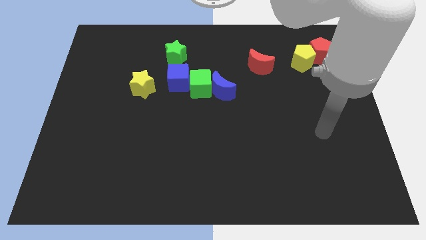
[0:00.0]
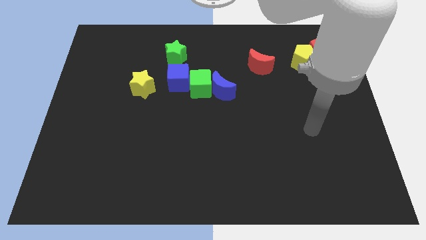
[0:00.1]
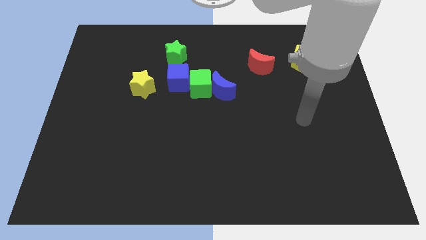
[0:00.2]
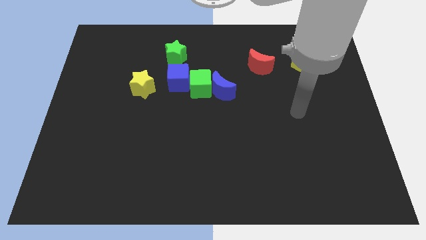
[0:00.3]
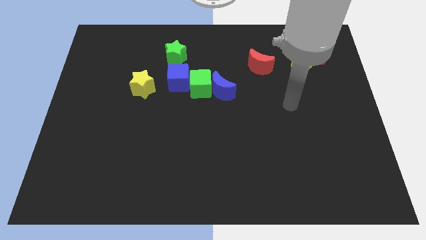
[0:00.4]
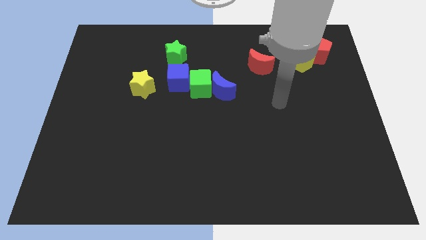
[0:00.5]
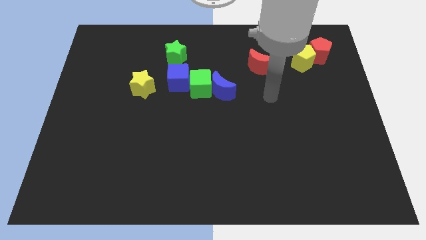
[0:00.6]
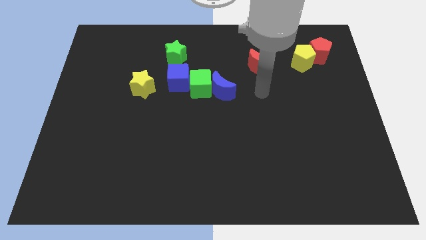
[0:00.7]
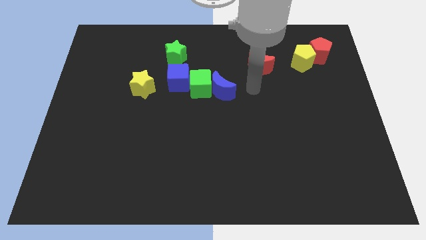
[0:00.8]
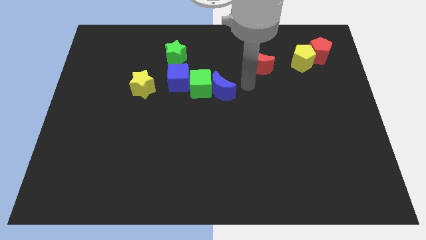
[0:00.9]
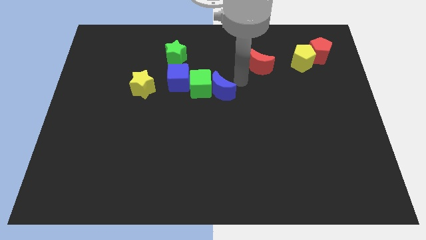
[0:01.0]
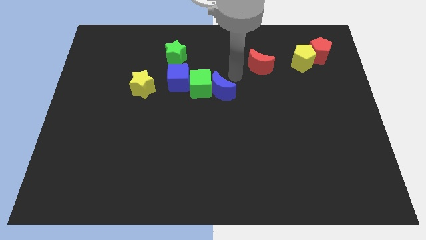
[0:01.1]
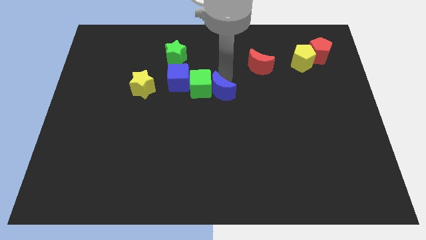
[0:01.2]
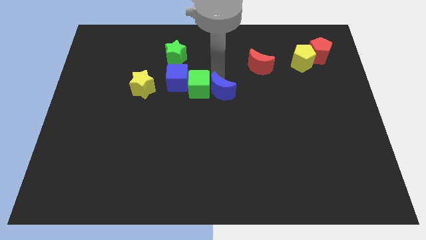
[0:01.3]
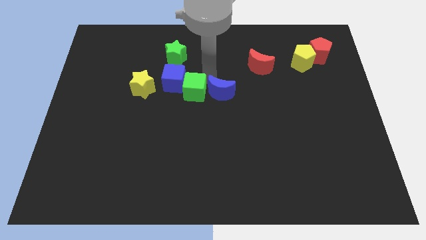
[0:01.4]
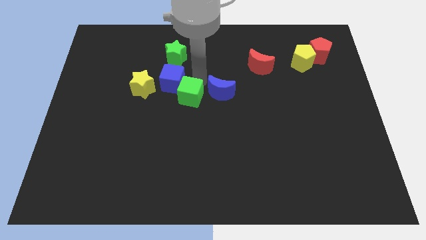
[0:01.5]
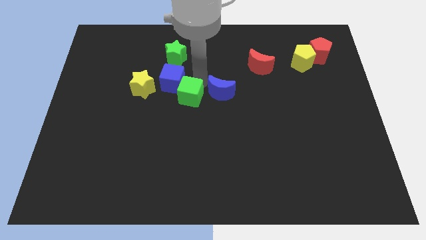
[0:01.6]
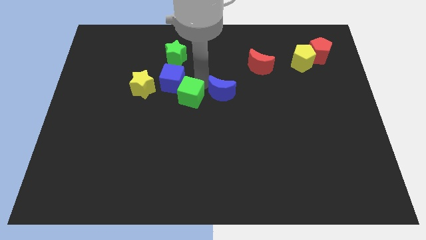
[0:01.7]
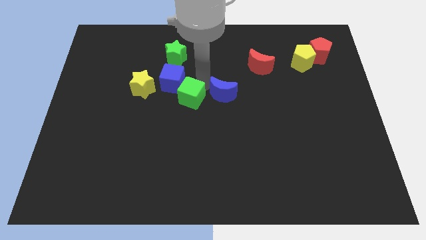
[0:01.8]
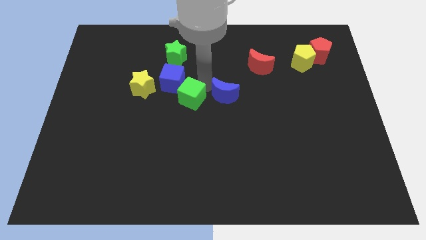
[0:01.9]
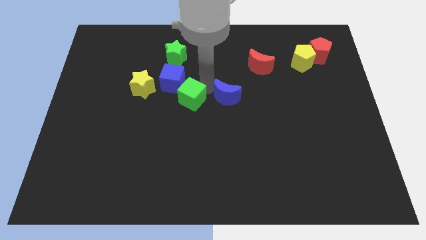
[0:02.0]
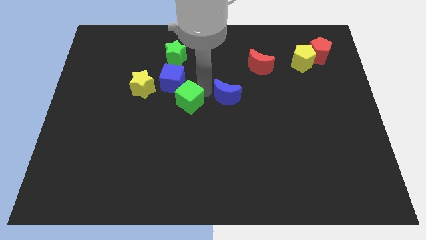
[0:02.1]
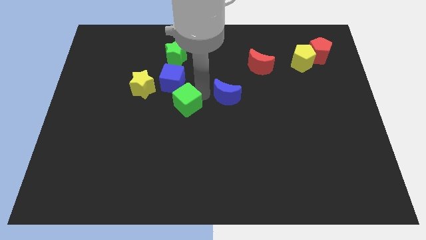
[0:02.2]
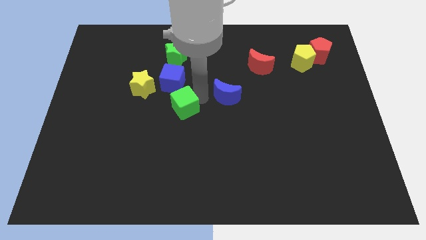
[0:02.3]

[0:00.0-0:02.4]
move the blue moon away from the green cube

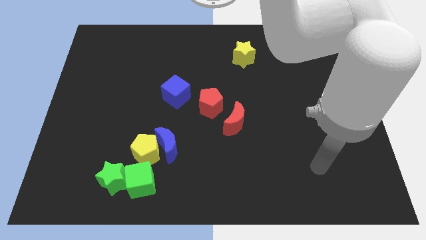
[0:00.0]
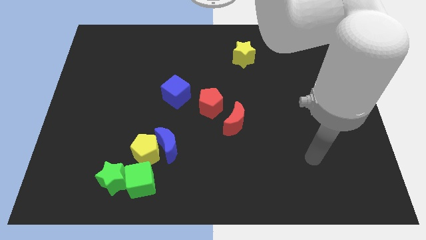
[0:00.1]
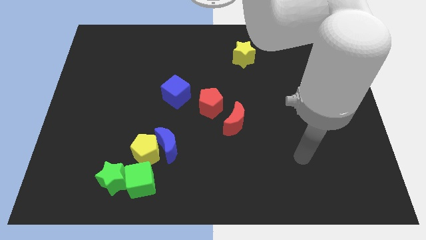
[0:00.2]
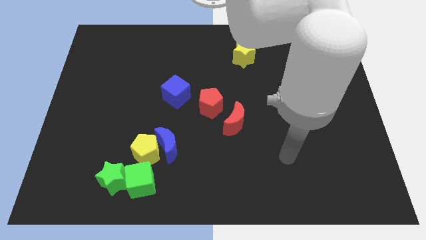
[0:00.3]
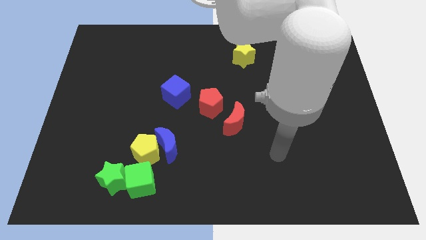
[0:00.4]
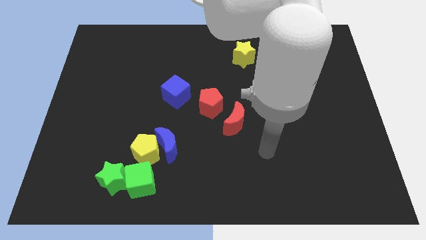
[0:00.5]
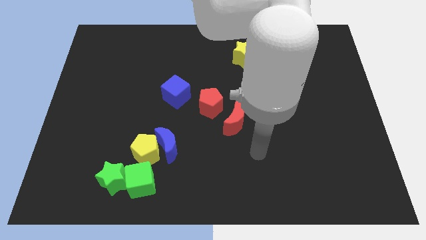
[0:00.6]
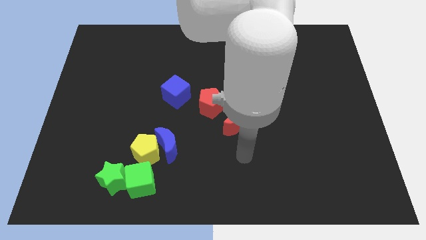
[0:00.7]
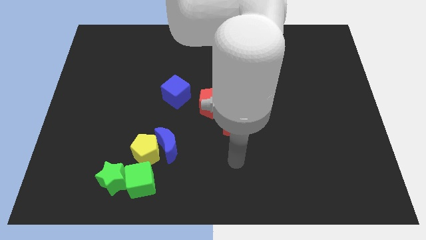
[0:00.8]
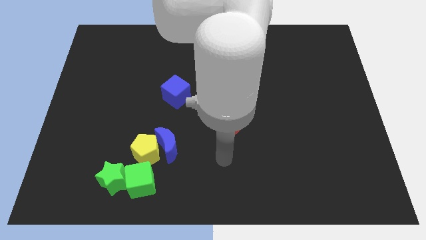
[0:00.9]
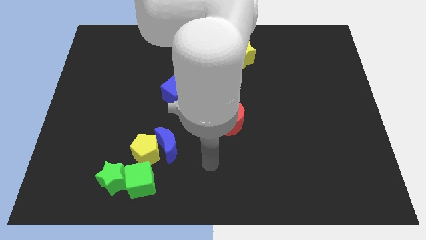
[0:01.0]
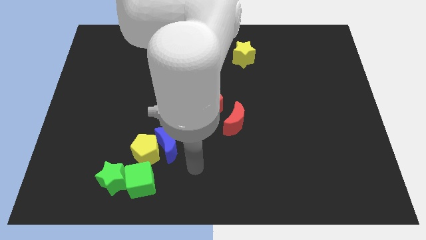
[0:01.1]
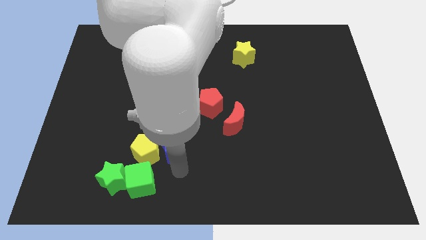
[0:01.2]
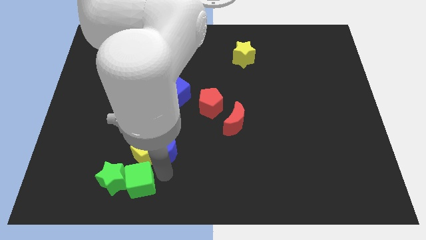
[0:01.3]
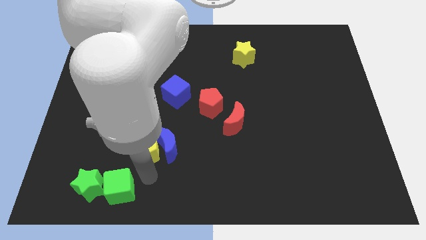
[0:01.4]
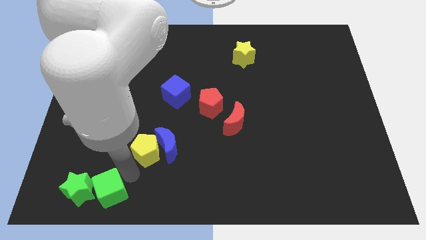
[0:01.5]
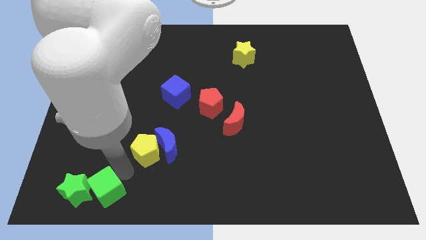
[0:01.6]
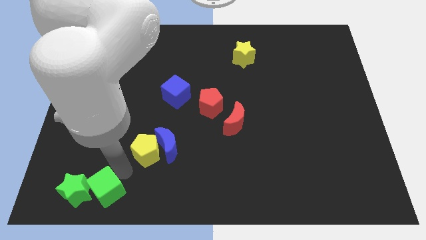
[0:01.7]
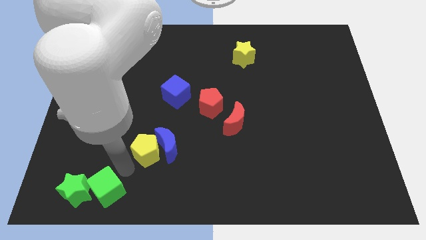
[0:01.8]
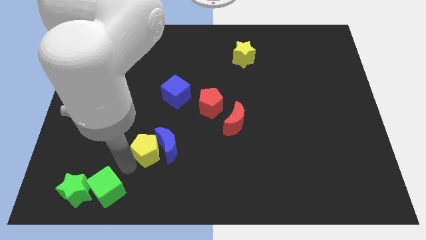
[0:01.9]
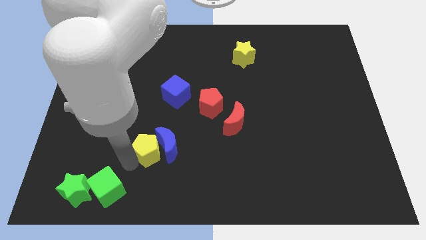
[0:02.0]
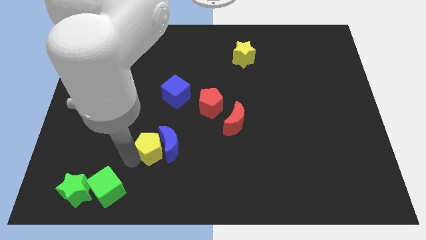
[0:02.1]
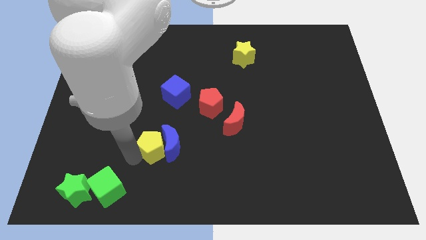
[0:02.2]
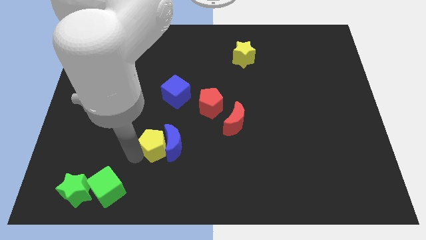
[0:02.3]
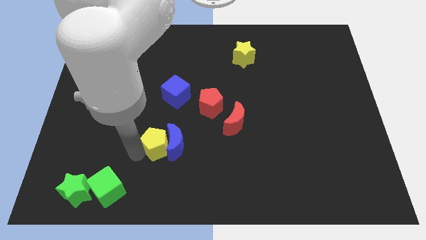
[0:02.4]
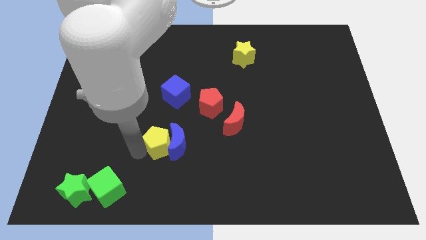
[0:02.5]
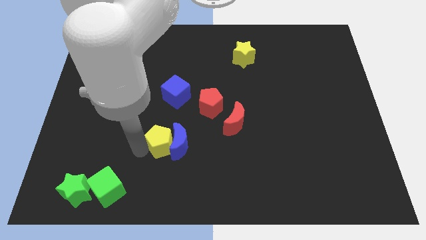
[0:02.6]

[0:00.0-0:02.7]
separate the yellow pentagon from the group of blocks

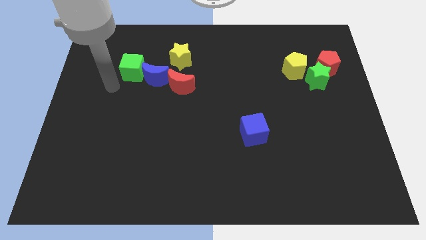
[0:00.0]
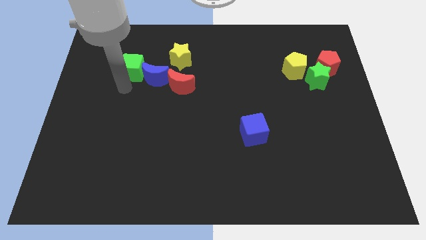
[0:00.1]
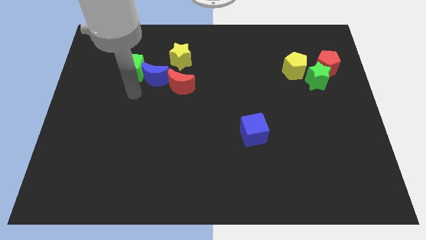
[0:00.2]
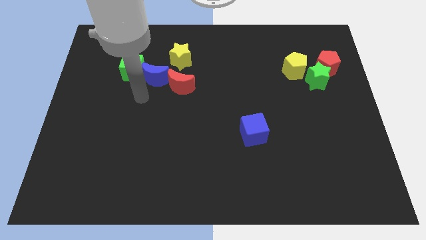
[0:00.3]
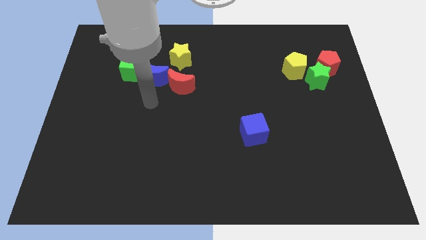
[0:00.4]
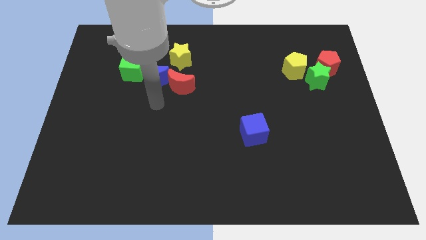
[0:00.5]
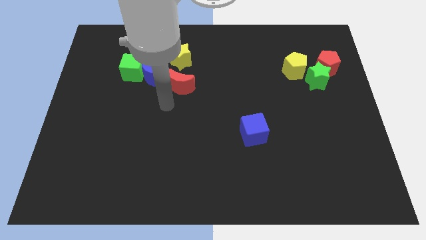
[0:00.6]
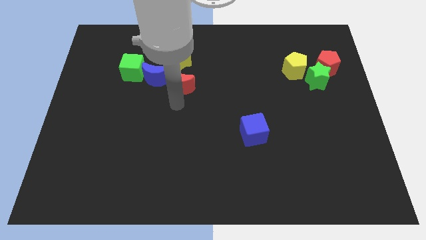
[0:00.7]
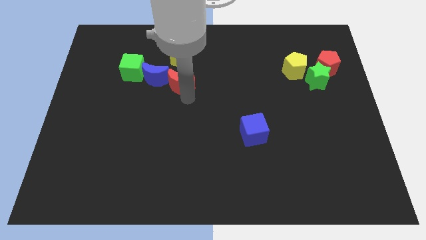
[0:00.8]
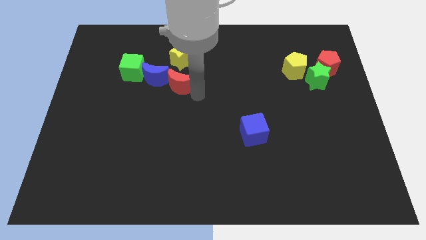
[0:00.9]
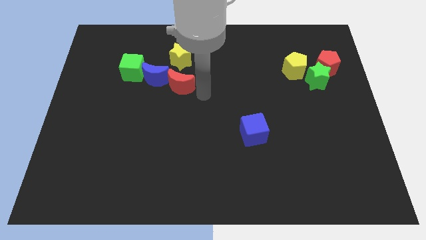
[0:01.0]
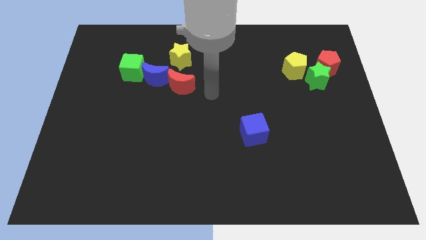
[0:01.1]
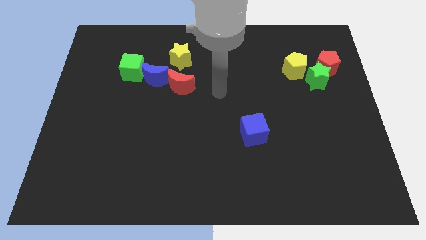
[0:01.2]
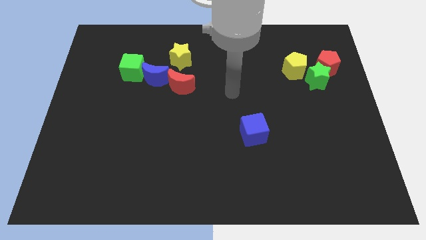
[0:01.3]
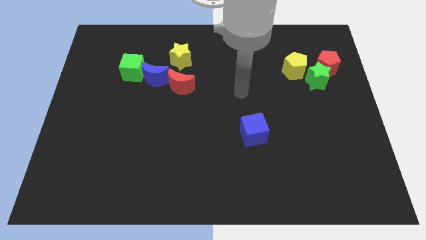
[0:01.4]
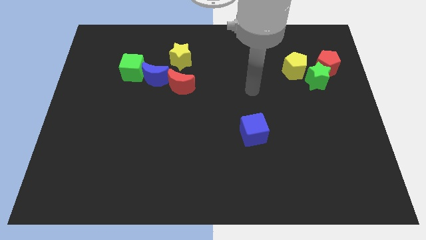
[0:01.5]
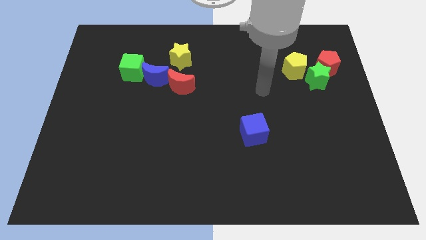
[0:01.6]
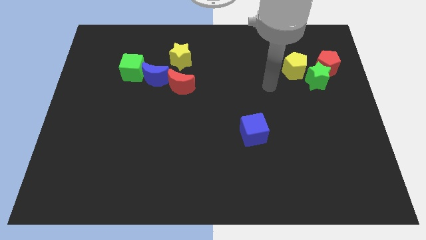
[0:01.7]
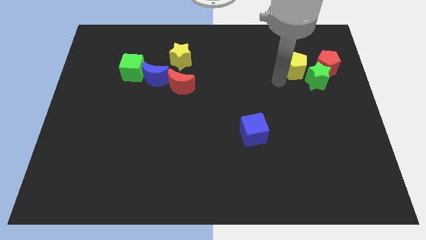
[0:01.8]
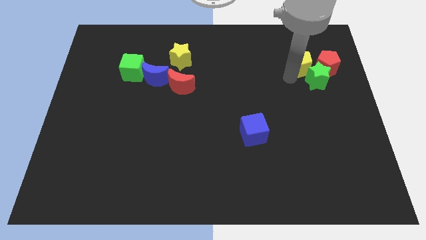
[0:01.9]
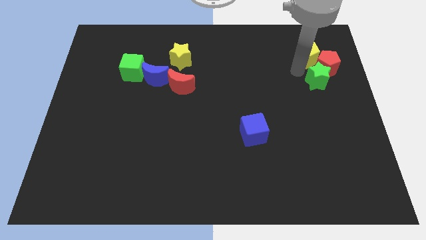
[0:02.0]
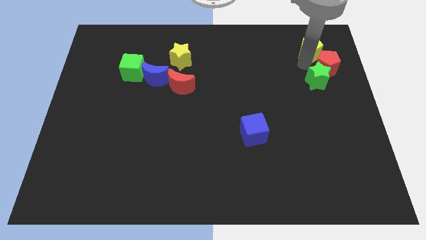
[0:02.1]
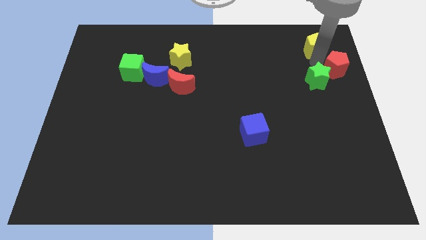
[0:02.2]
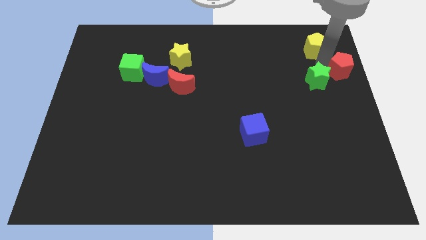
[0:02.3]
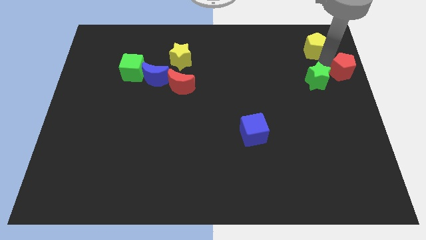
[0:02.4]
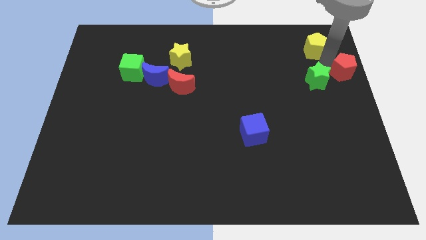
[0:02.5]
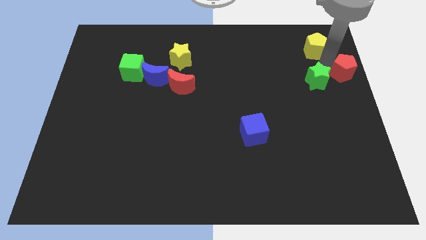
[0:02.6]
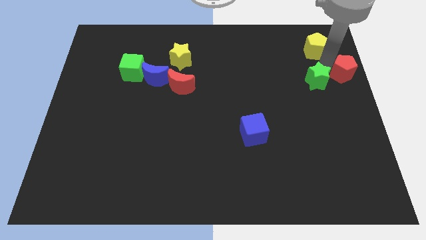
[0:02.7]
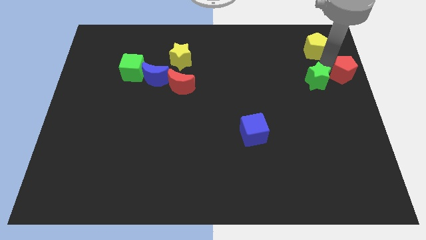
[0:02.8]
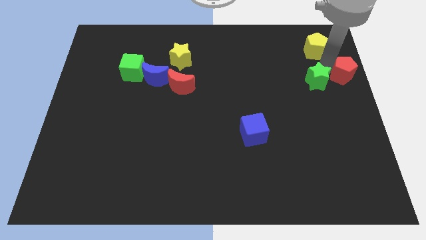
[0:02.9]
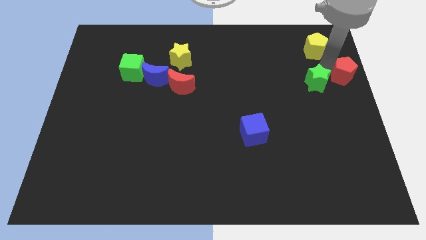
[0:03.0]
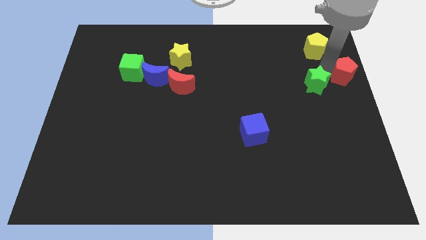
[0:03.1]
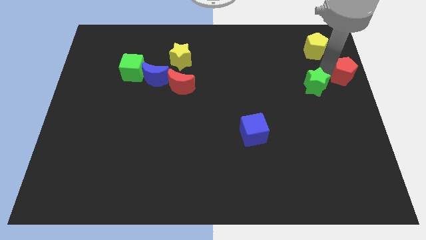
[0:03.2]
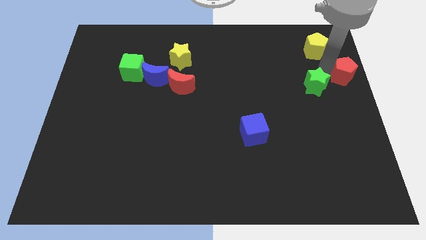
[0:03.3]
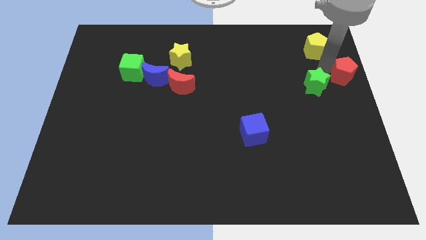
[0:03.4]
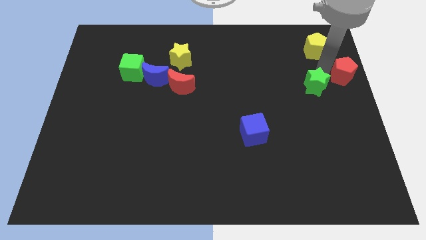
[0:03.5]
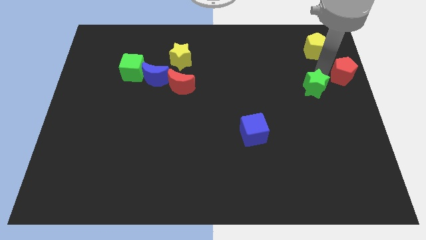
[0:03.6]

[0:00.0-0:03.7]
separate the green star from the red pentagon and yellow pentagon

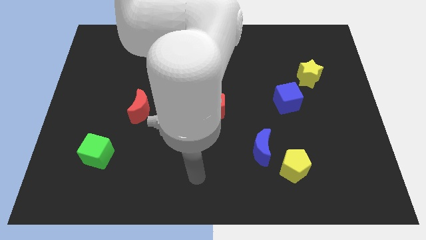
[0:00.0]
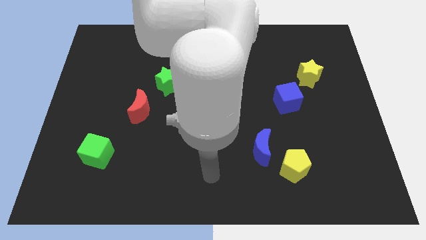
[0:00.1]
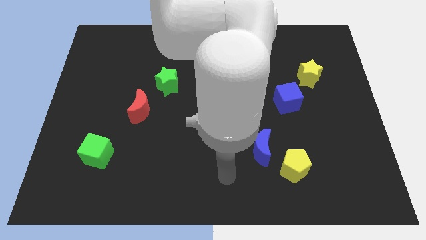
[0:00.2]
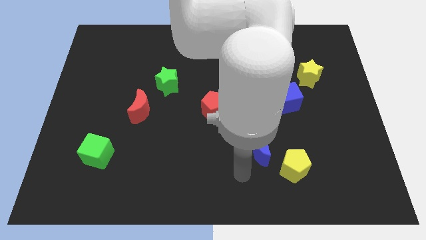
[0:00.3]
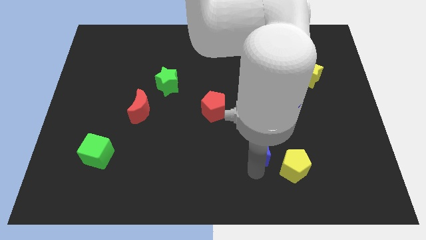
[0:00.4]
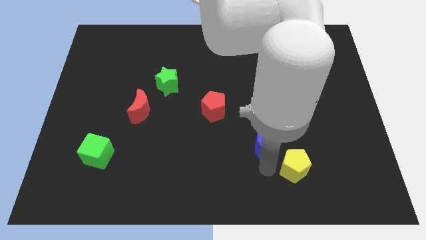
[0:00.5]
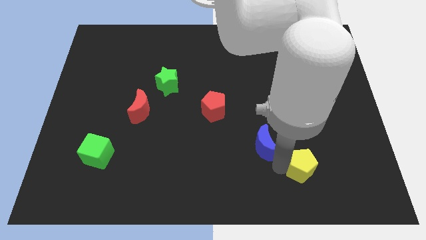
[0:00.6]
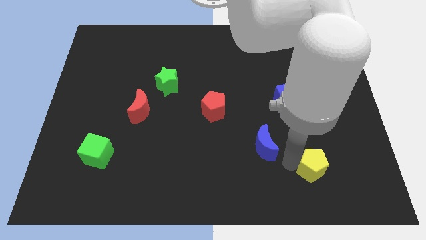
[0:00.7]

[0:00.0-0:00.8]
pull the blue moon apart from the yellow pentagon
